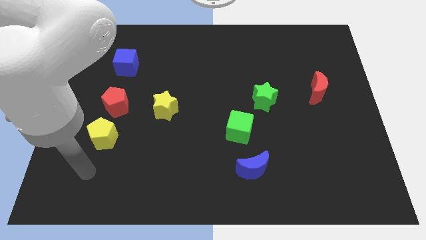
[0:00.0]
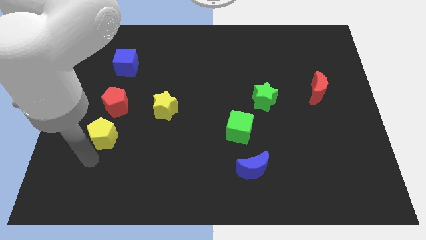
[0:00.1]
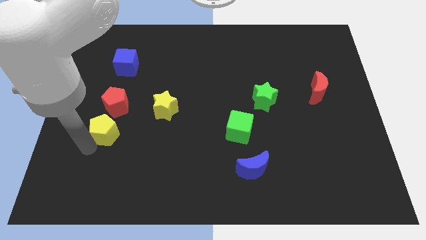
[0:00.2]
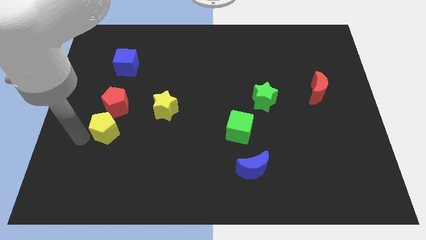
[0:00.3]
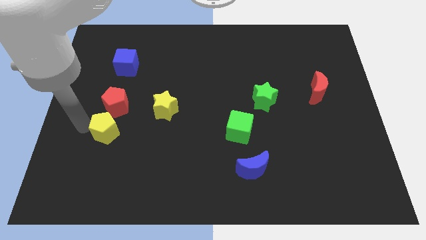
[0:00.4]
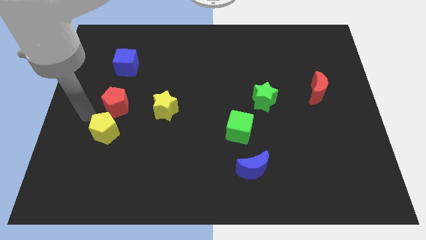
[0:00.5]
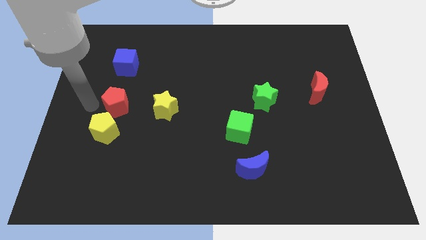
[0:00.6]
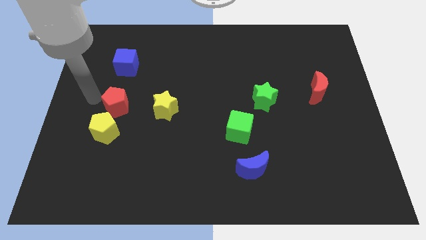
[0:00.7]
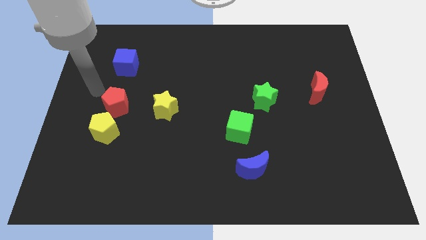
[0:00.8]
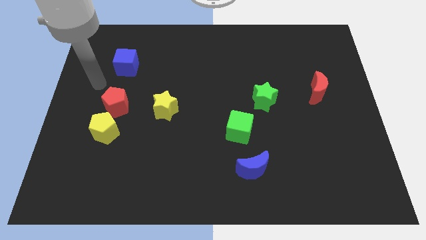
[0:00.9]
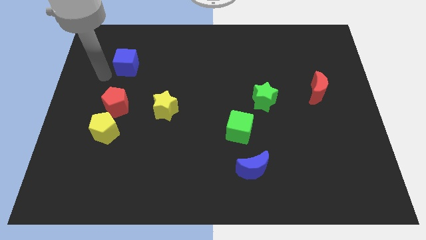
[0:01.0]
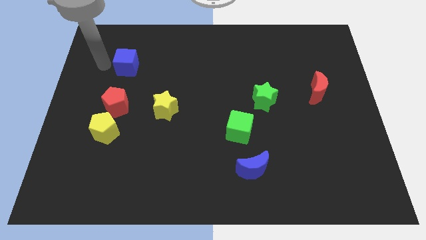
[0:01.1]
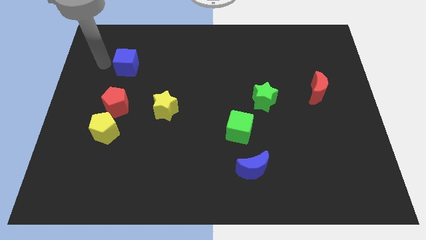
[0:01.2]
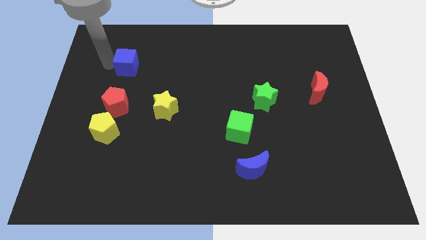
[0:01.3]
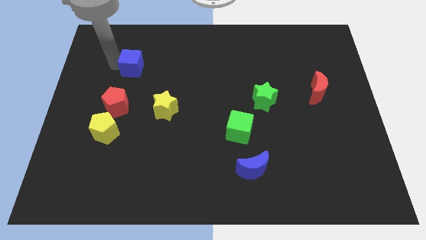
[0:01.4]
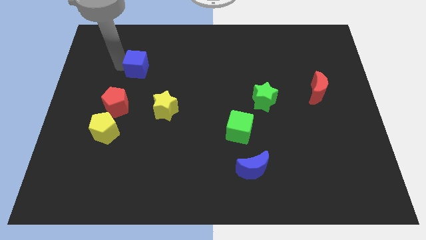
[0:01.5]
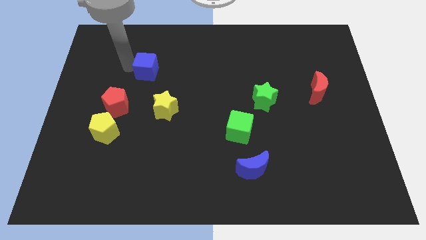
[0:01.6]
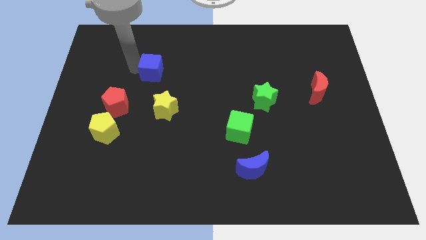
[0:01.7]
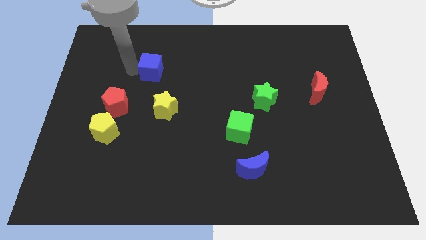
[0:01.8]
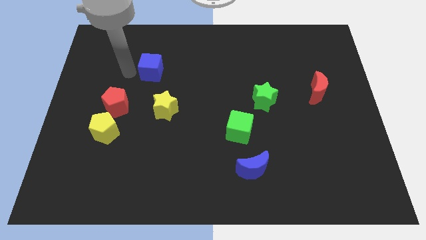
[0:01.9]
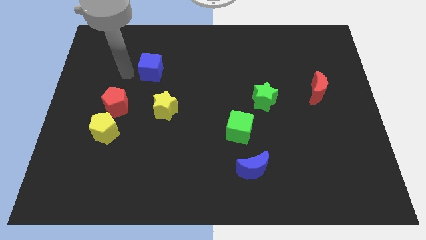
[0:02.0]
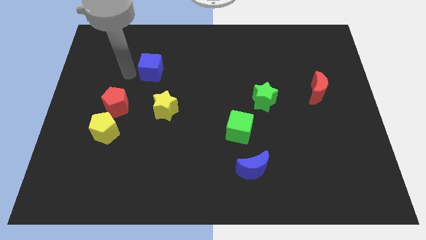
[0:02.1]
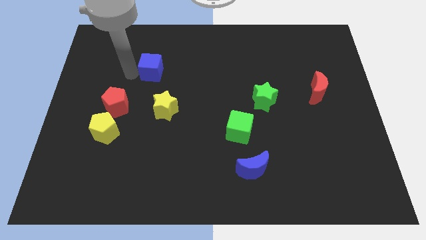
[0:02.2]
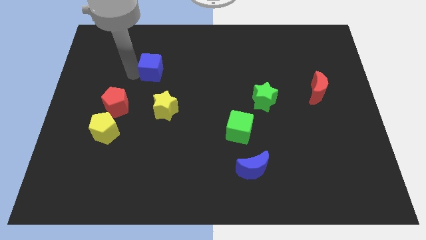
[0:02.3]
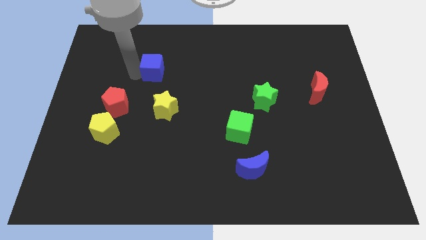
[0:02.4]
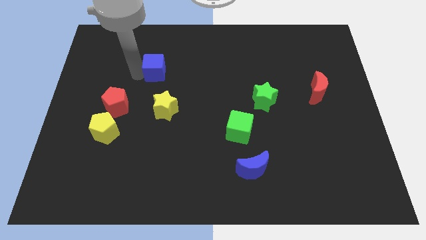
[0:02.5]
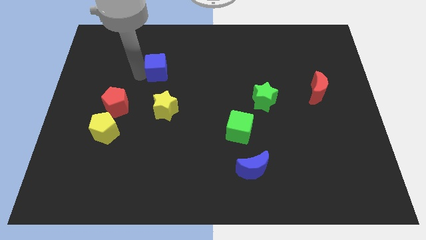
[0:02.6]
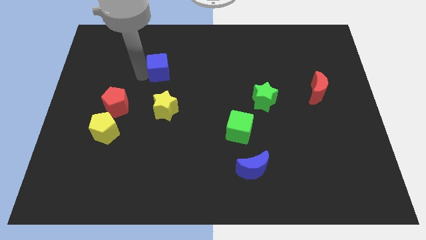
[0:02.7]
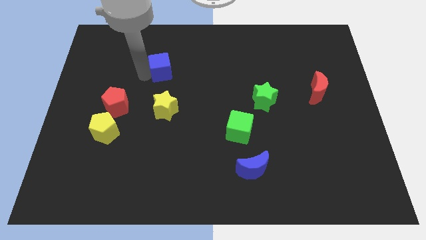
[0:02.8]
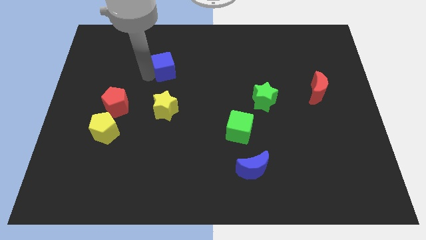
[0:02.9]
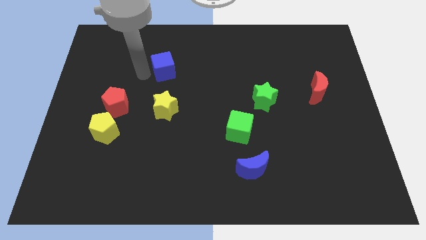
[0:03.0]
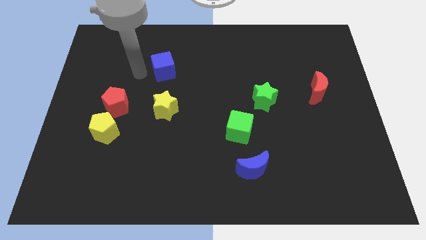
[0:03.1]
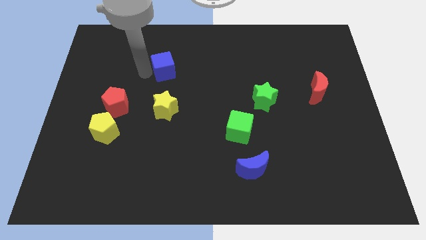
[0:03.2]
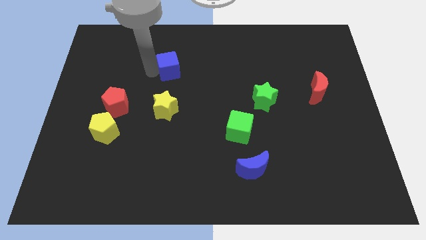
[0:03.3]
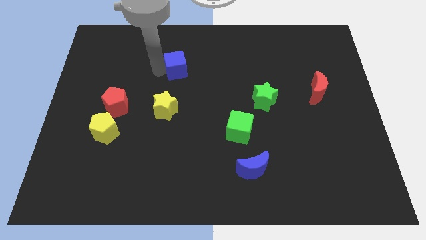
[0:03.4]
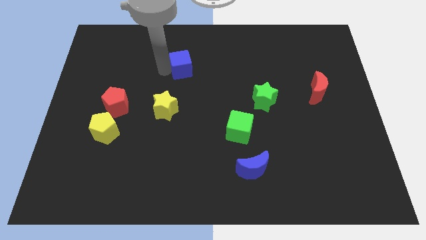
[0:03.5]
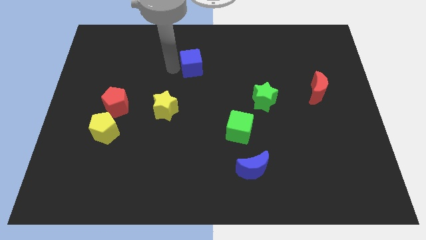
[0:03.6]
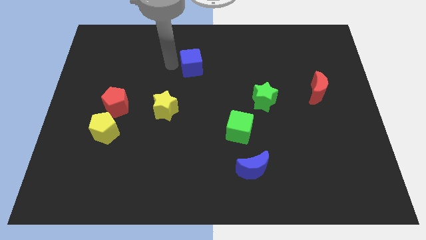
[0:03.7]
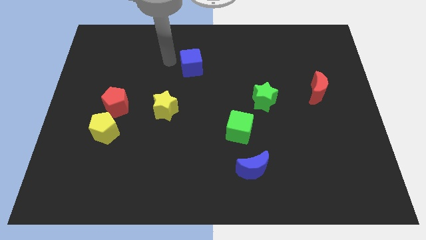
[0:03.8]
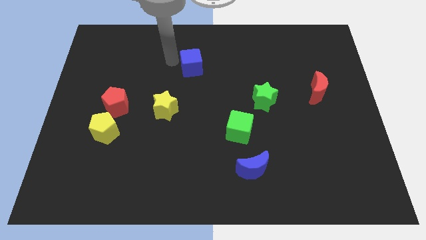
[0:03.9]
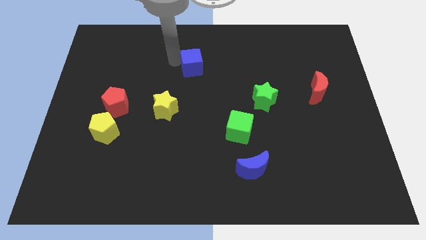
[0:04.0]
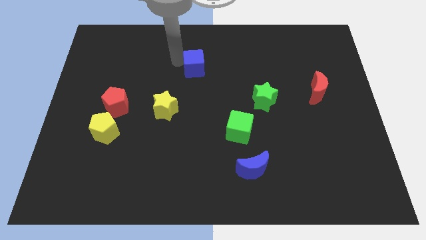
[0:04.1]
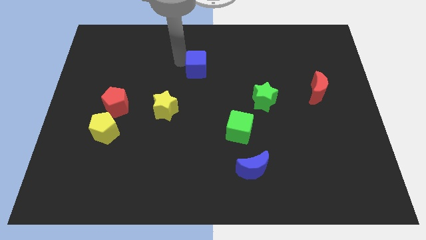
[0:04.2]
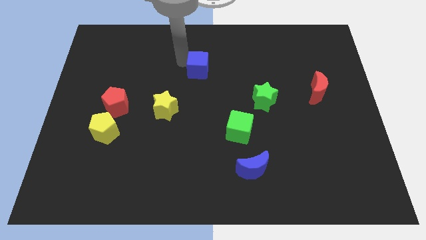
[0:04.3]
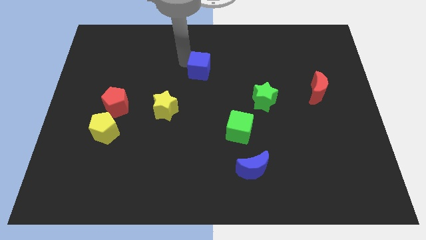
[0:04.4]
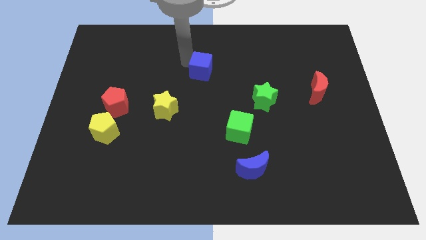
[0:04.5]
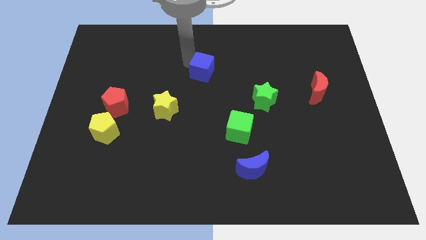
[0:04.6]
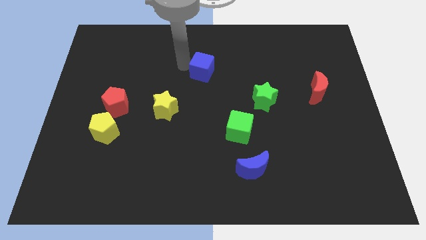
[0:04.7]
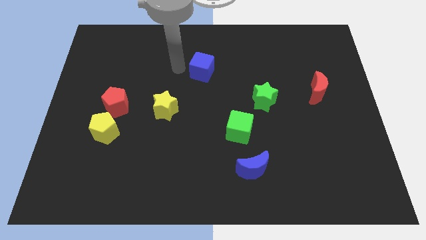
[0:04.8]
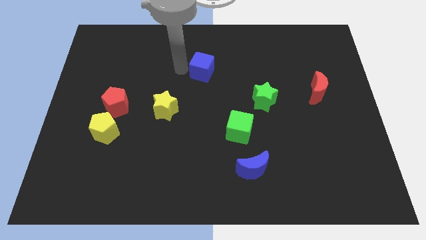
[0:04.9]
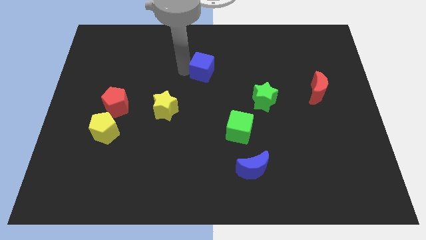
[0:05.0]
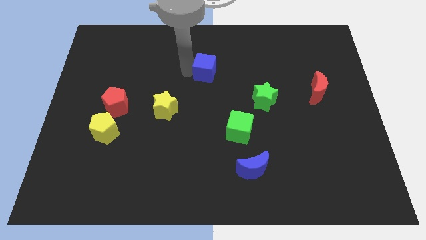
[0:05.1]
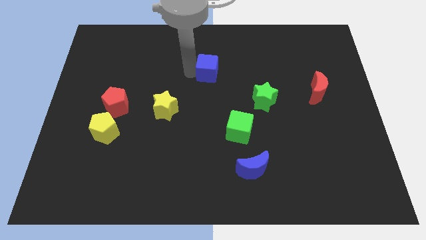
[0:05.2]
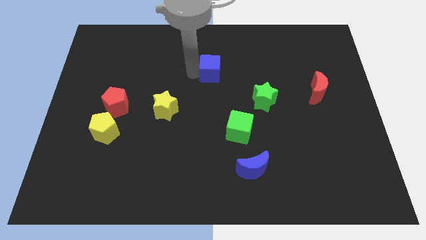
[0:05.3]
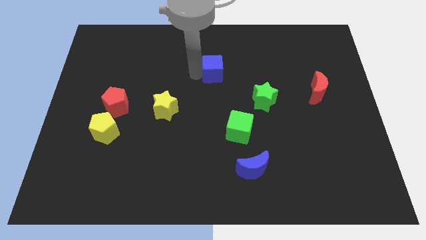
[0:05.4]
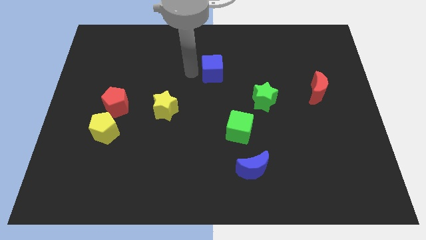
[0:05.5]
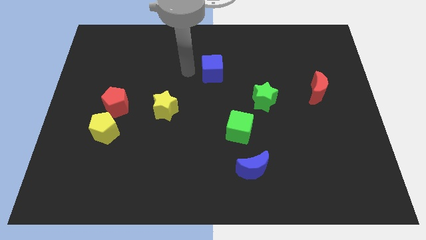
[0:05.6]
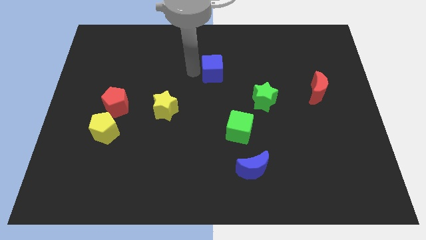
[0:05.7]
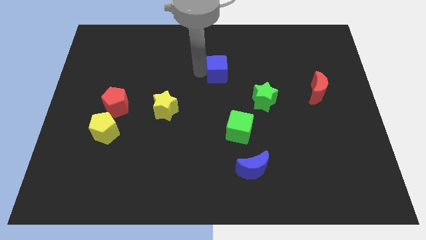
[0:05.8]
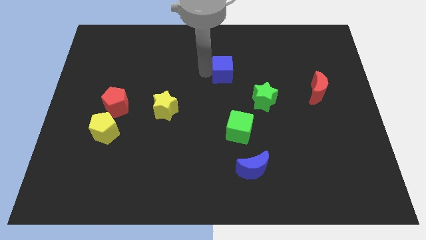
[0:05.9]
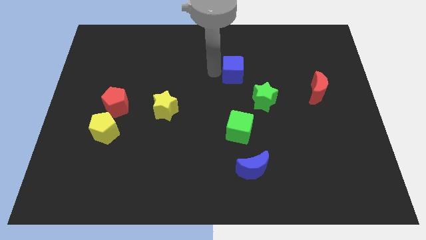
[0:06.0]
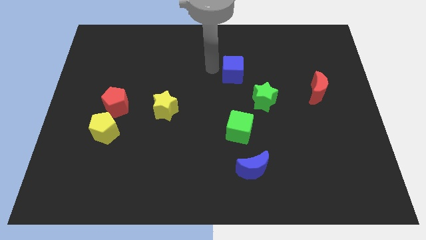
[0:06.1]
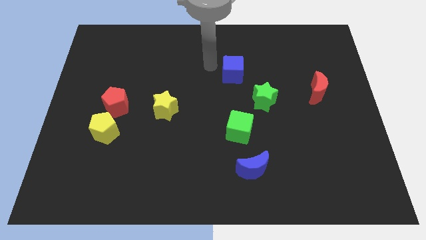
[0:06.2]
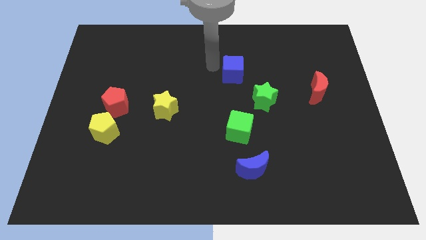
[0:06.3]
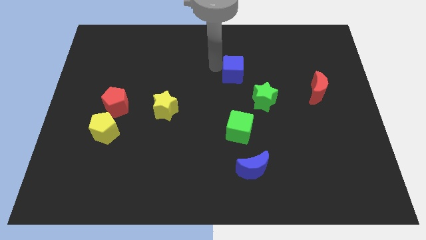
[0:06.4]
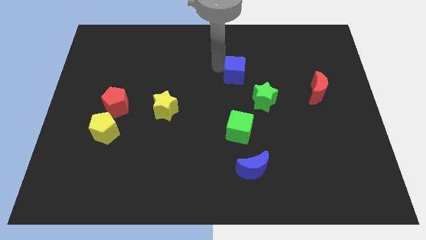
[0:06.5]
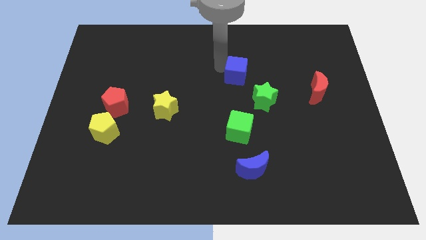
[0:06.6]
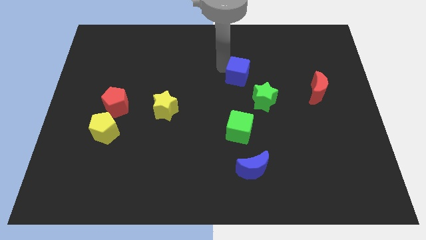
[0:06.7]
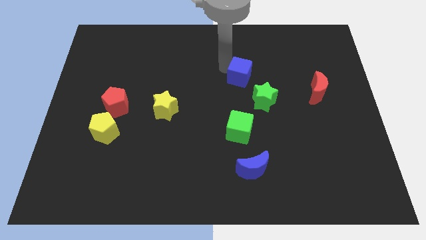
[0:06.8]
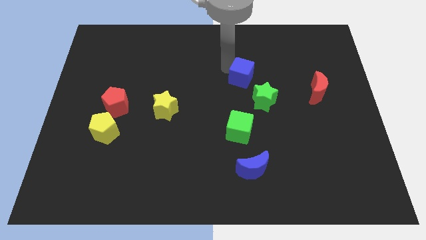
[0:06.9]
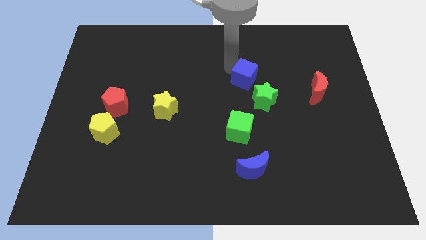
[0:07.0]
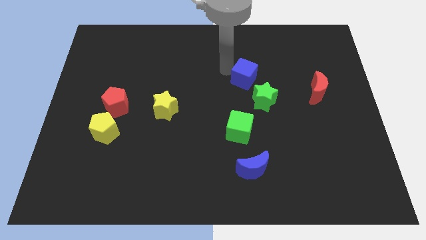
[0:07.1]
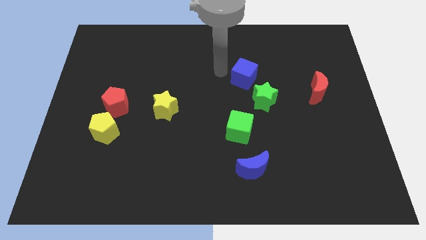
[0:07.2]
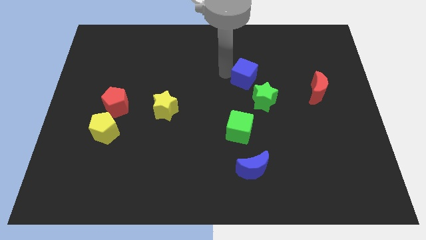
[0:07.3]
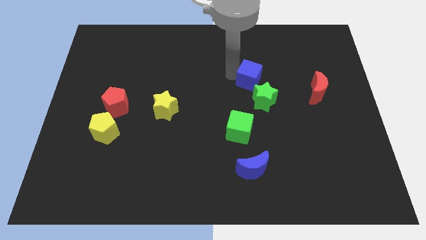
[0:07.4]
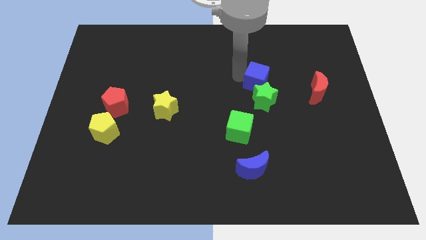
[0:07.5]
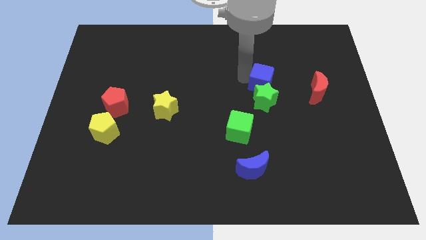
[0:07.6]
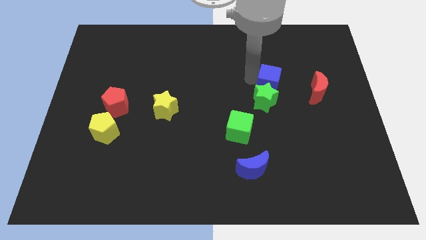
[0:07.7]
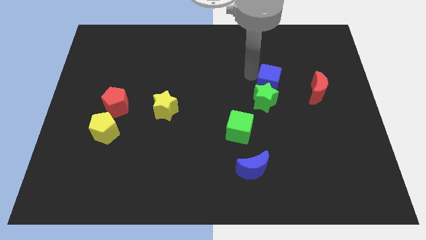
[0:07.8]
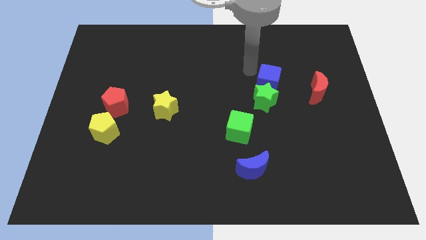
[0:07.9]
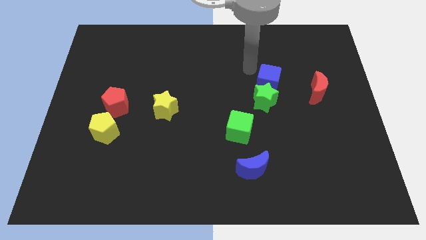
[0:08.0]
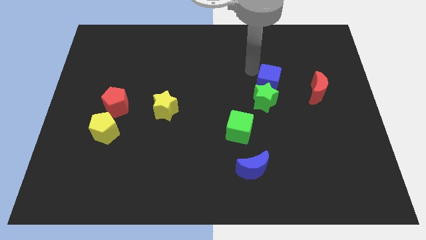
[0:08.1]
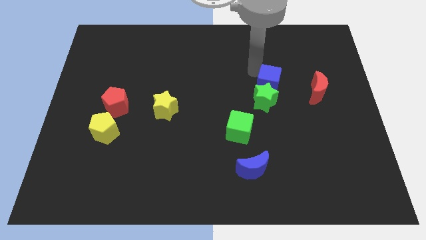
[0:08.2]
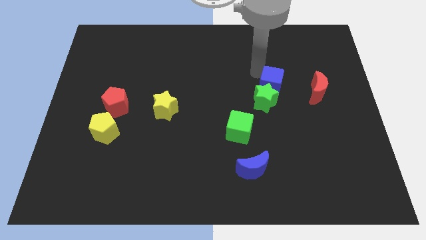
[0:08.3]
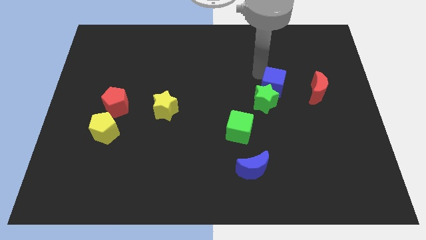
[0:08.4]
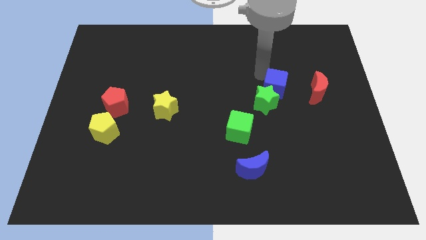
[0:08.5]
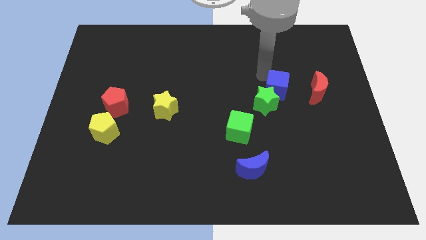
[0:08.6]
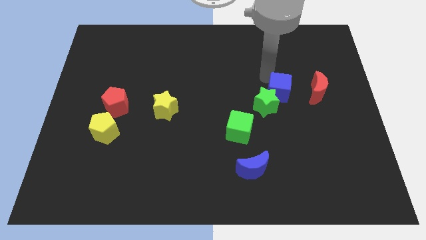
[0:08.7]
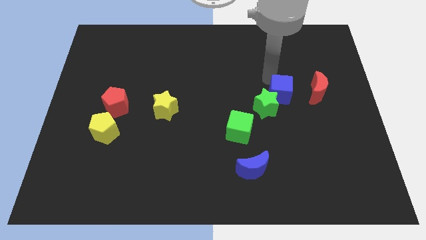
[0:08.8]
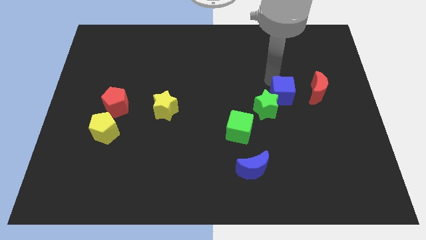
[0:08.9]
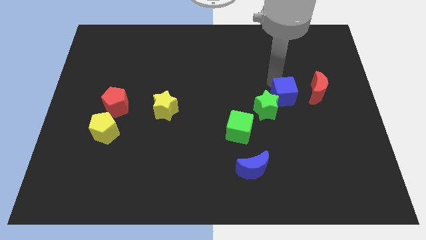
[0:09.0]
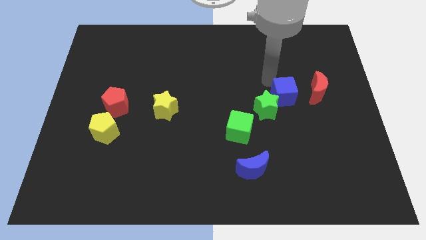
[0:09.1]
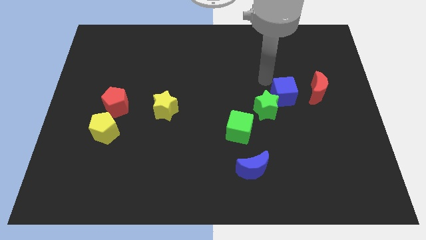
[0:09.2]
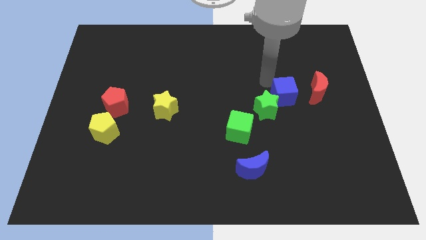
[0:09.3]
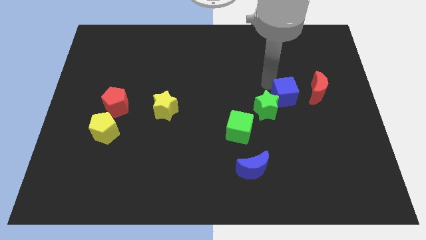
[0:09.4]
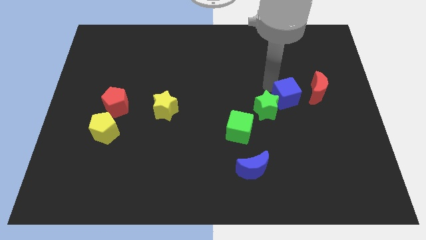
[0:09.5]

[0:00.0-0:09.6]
push the blue cube to the bottom left of the red moon
